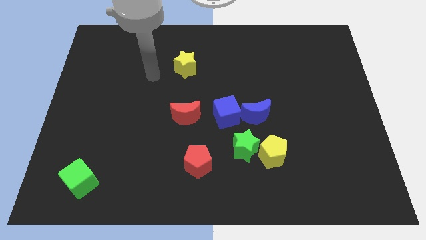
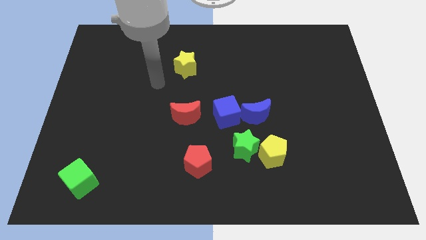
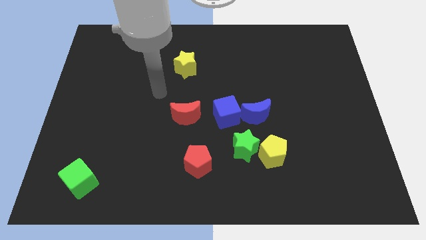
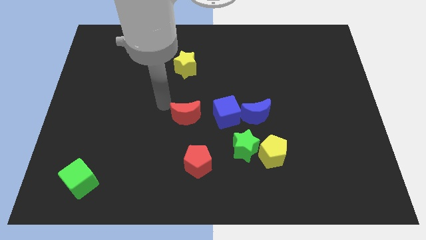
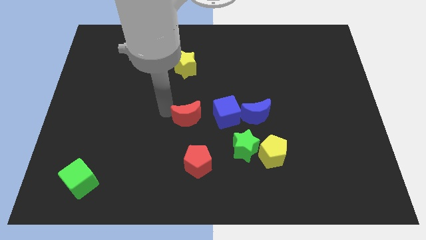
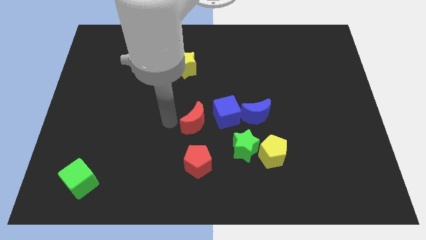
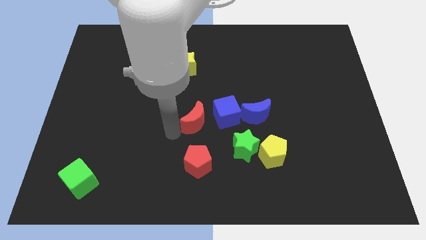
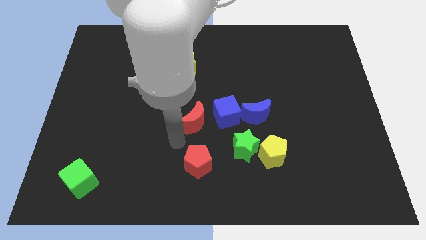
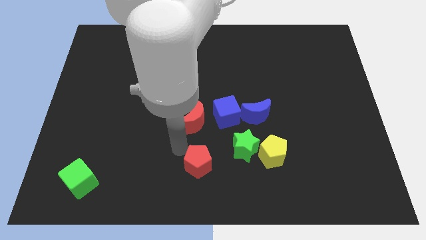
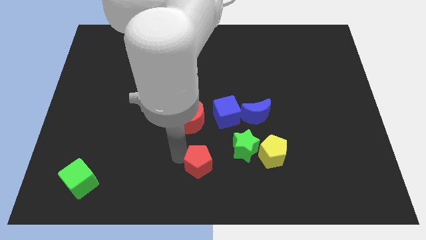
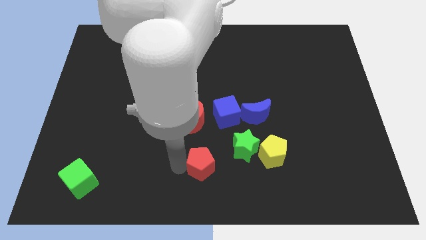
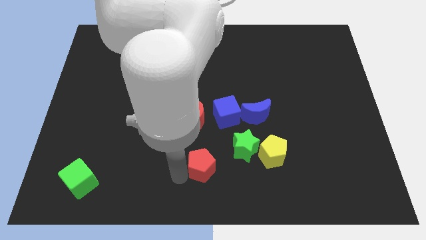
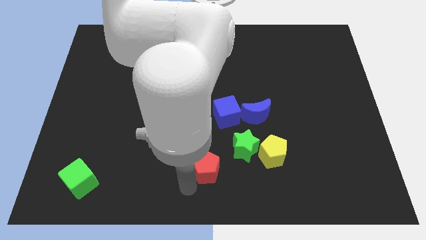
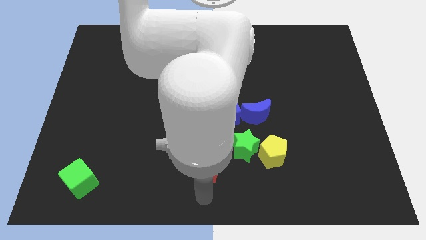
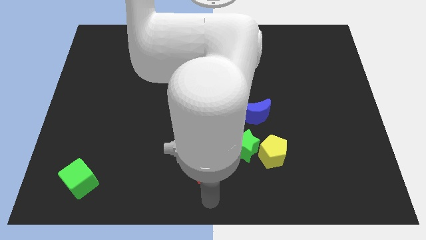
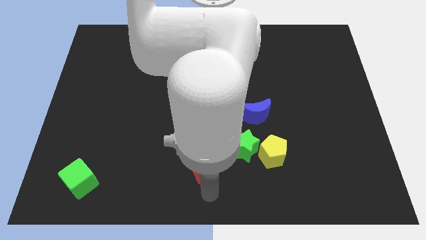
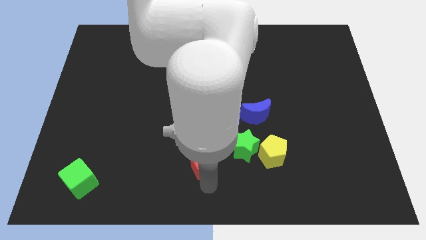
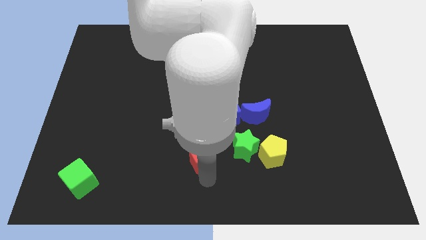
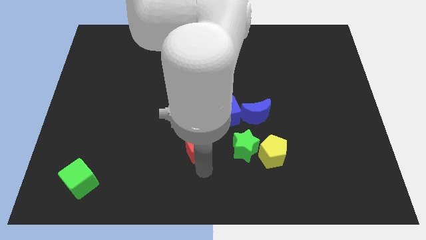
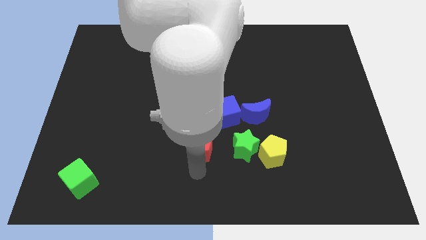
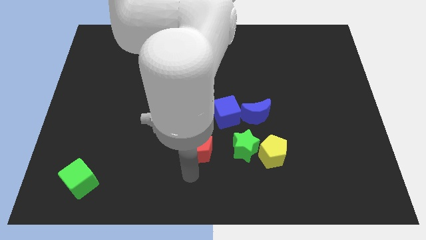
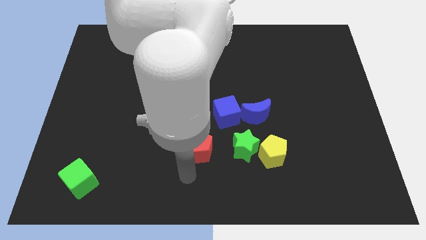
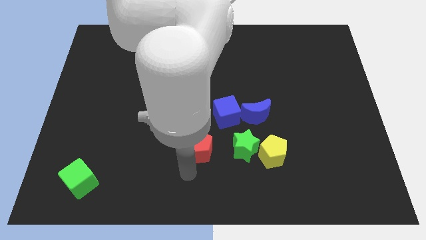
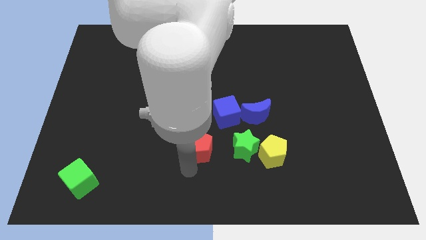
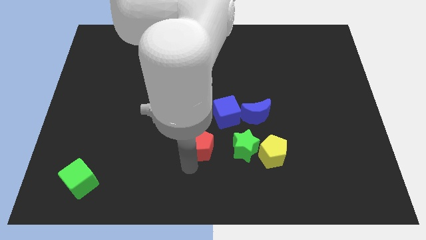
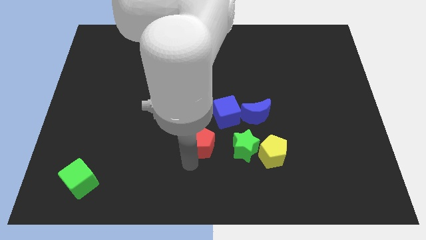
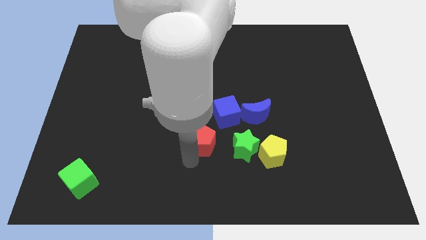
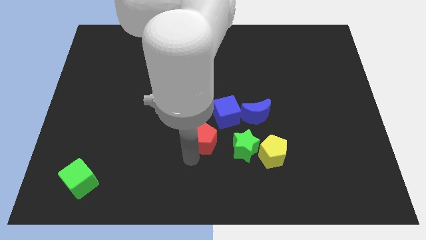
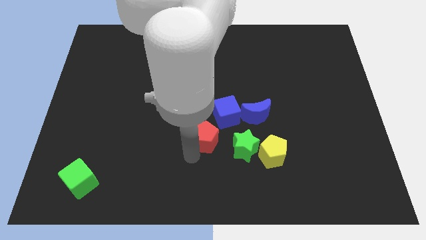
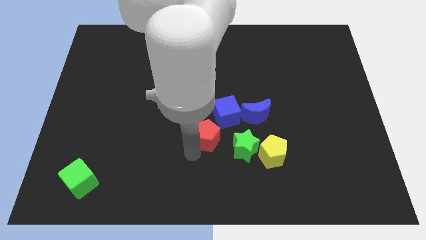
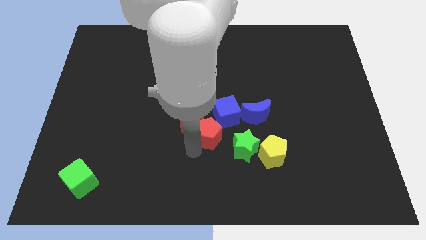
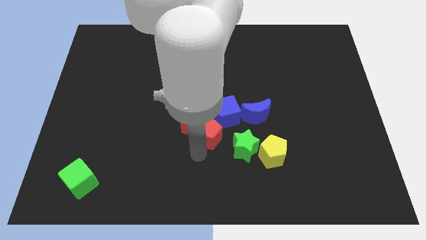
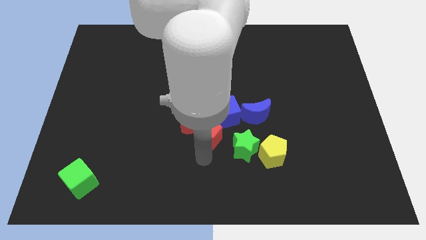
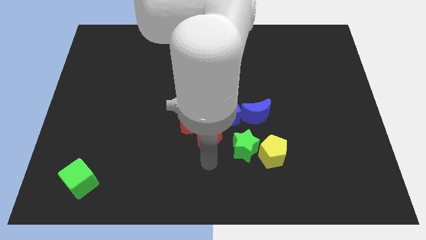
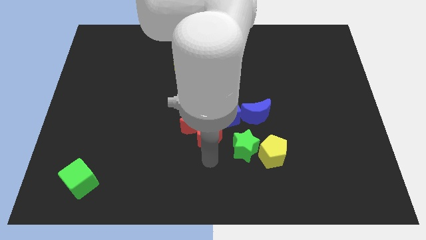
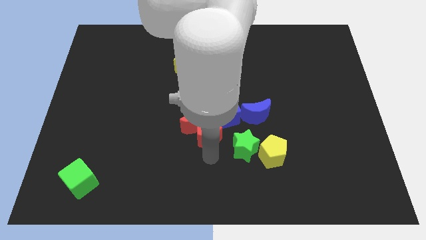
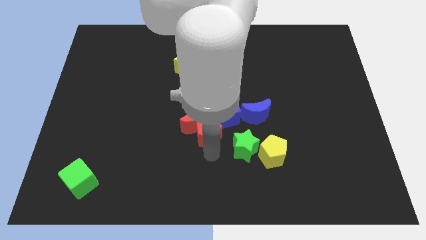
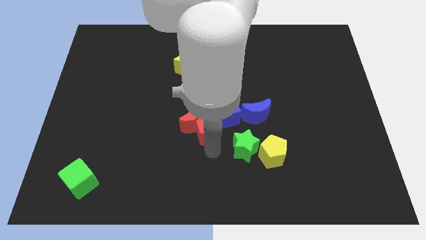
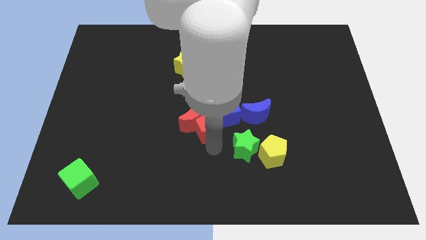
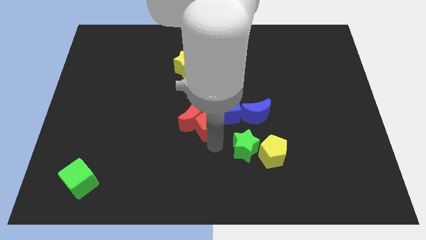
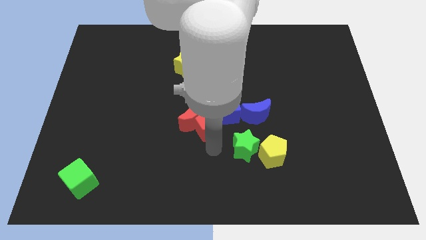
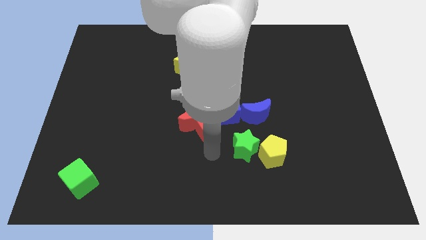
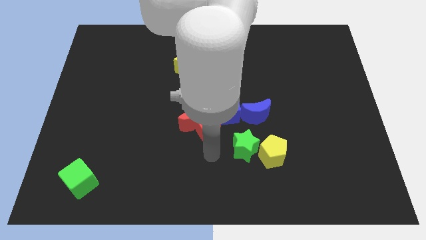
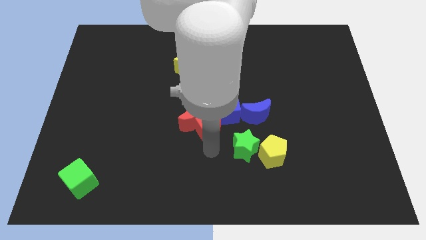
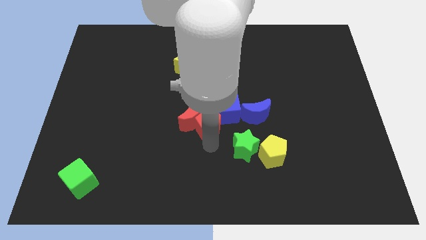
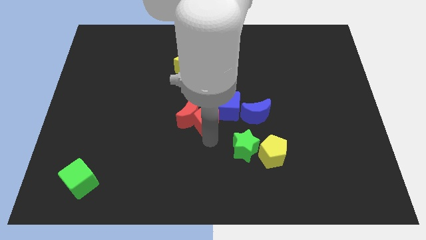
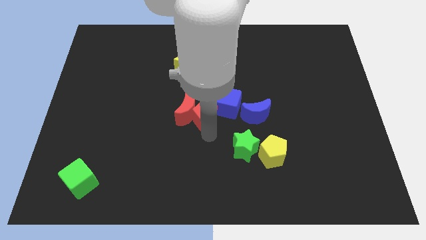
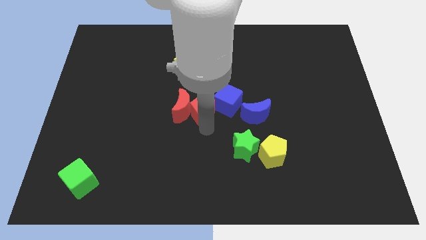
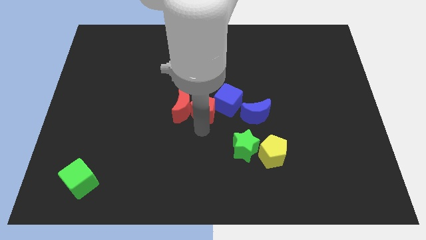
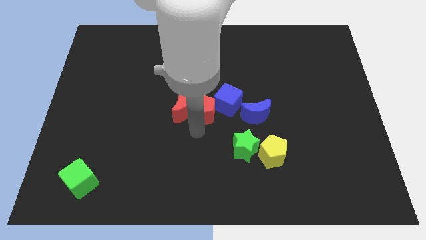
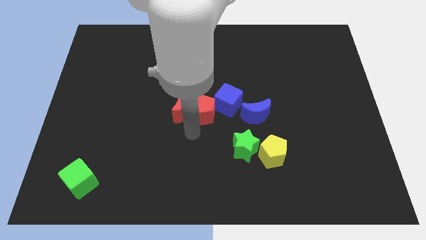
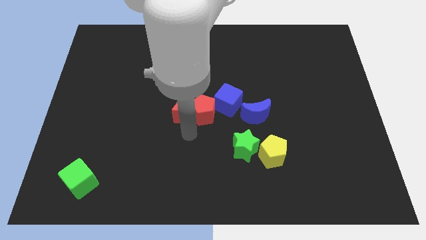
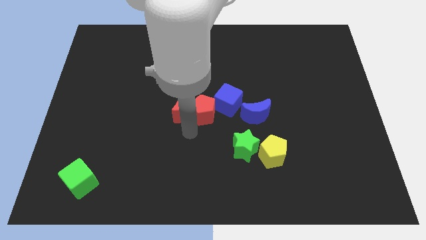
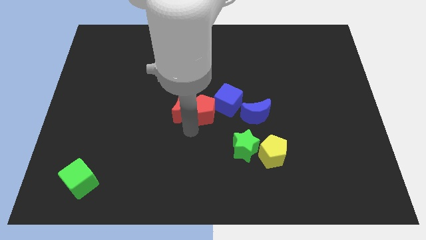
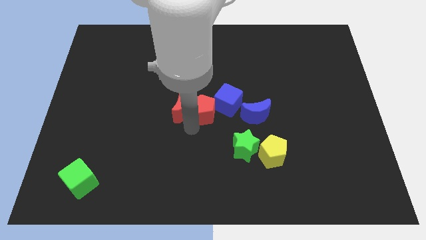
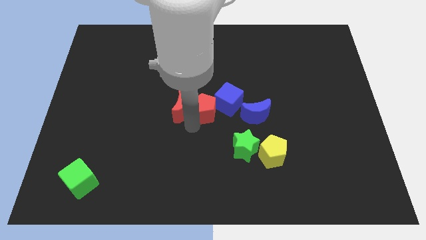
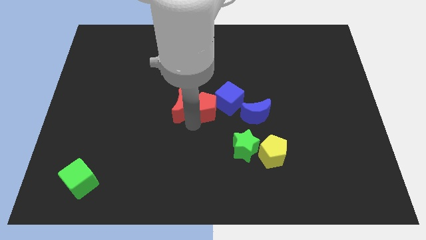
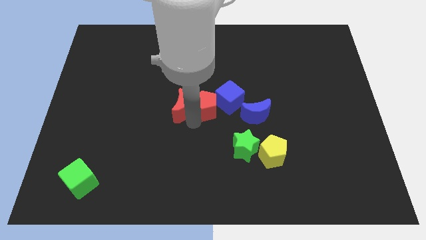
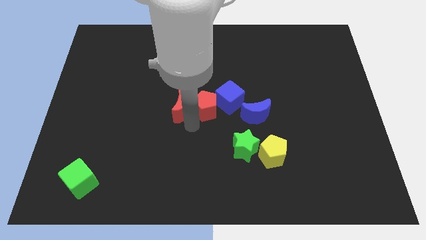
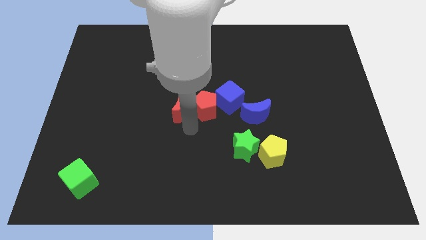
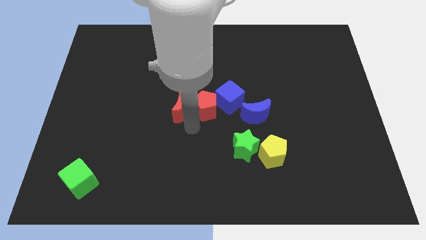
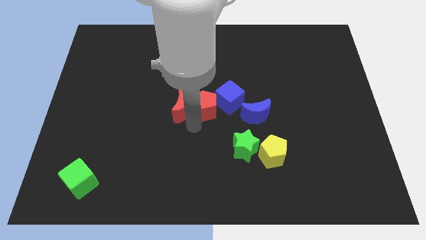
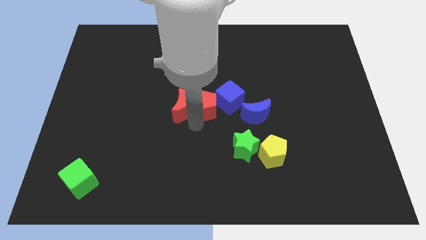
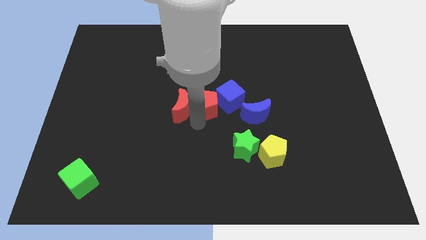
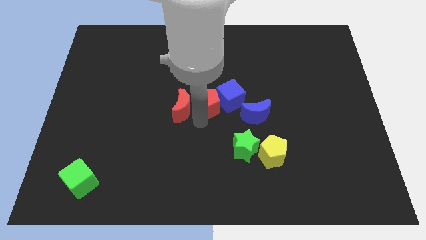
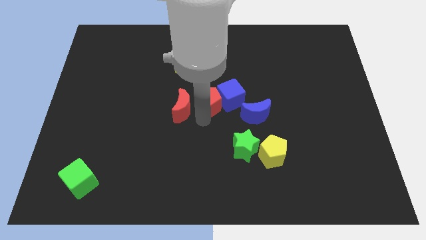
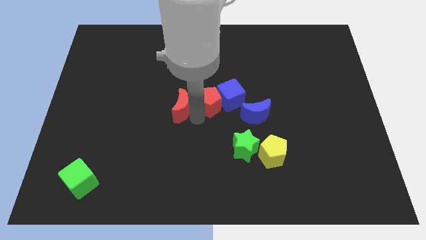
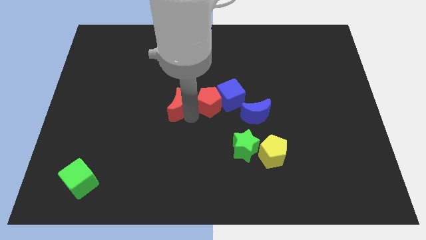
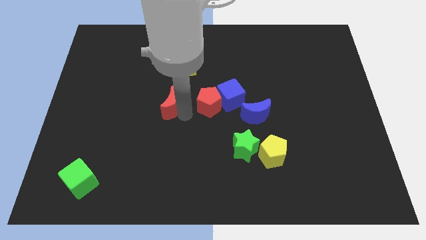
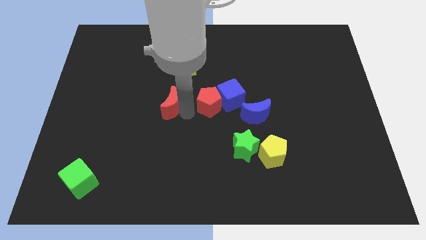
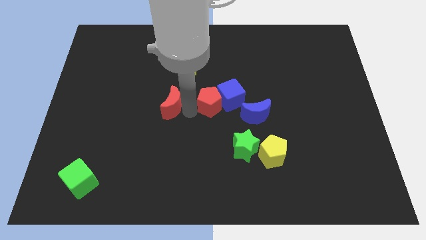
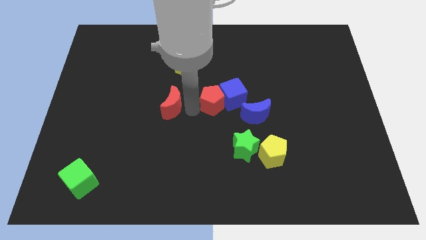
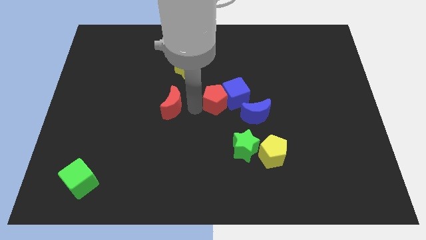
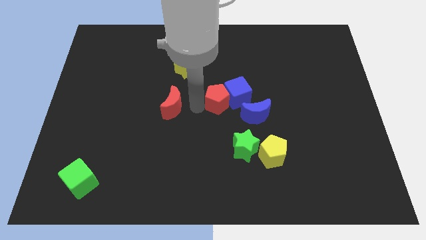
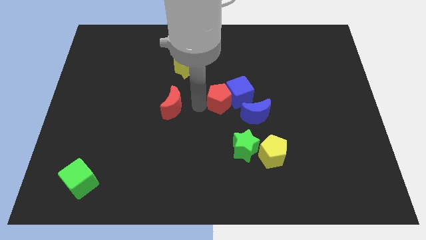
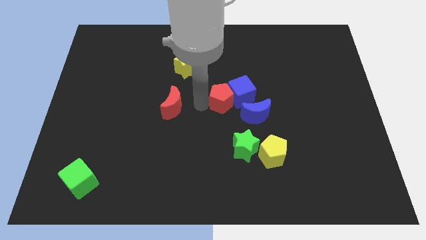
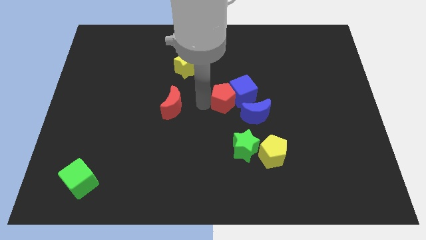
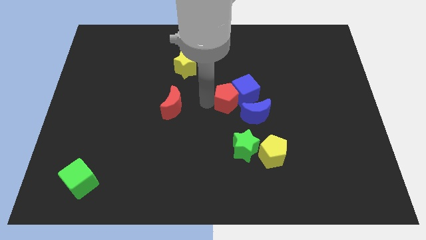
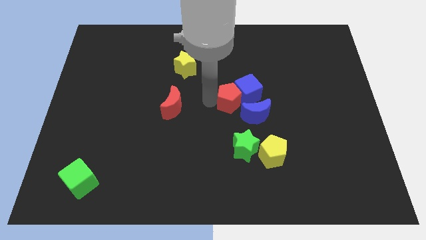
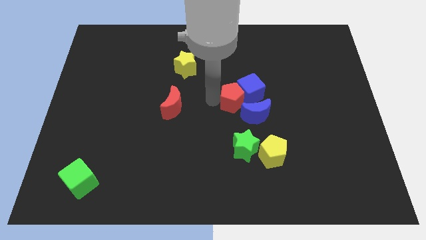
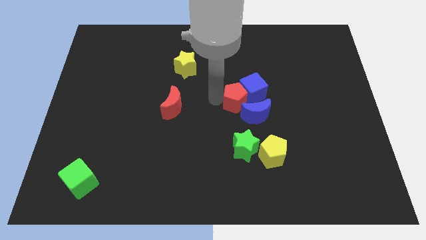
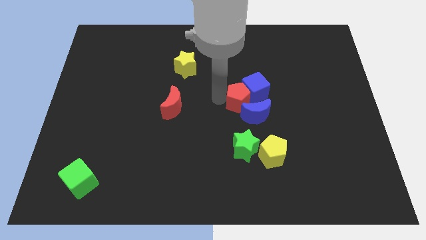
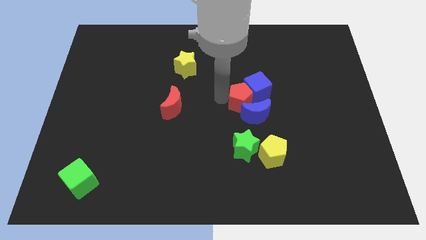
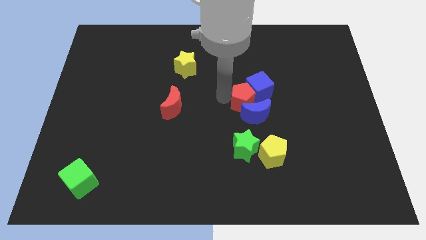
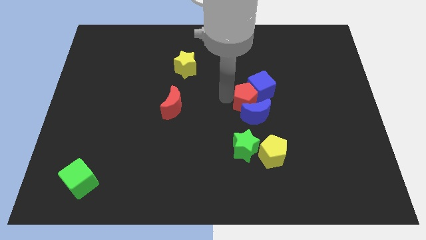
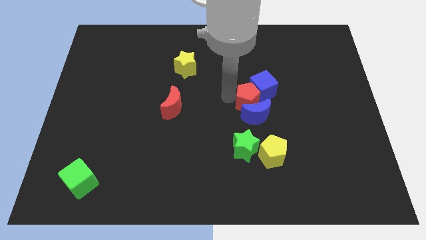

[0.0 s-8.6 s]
move the red pentagon to the top right of the blue moon
